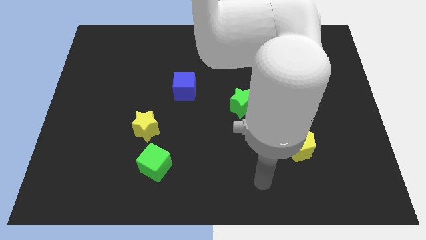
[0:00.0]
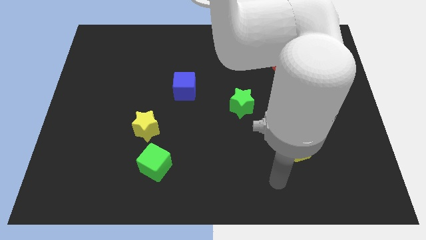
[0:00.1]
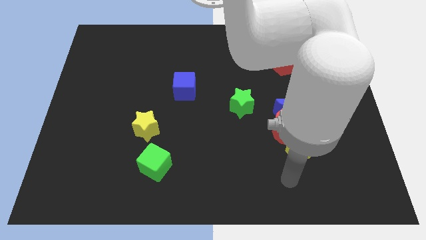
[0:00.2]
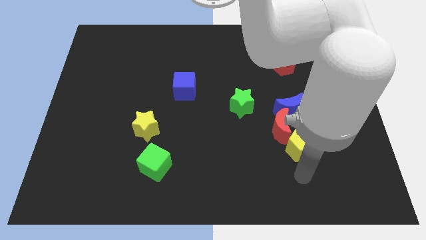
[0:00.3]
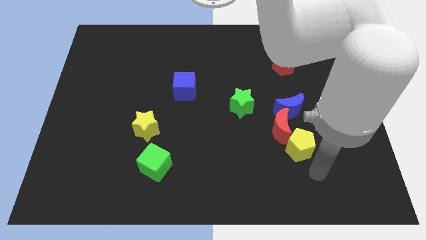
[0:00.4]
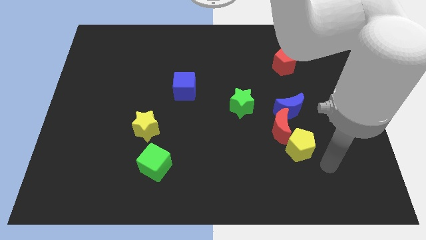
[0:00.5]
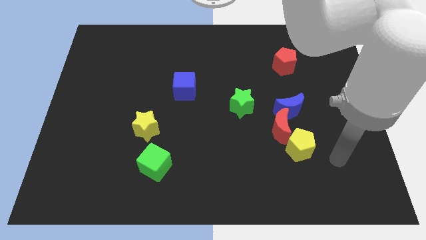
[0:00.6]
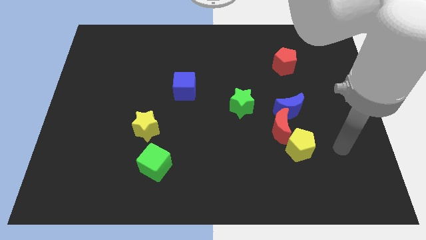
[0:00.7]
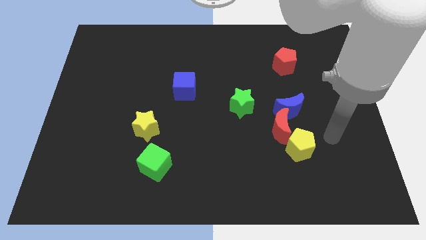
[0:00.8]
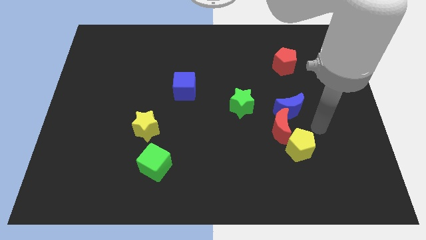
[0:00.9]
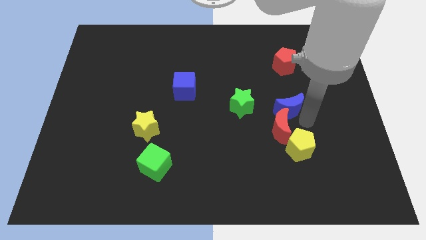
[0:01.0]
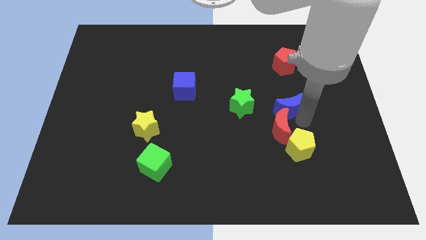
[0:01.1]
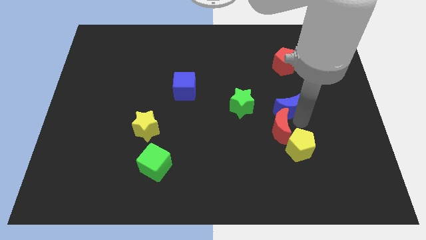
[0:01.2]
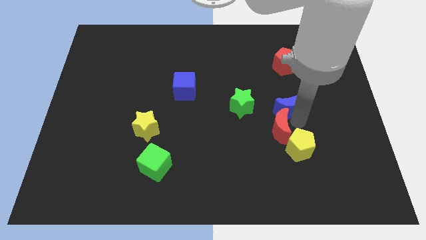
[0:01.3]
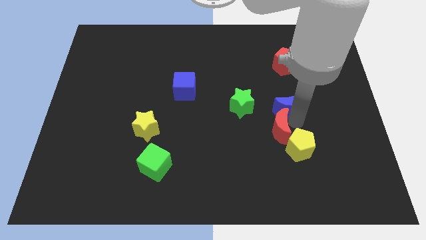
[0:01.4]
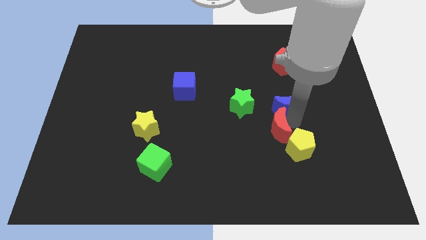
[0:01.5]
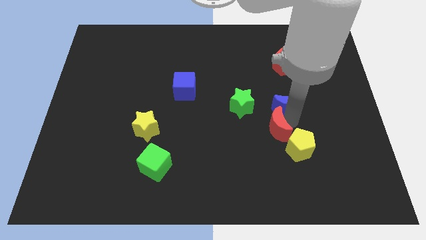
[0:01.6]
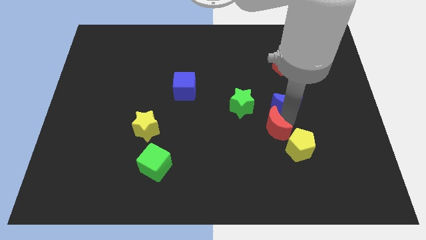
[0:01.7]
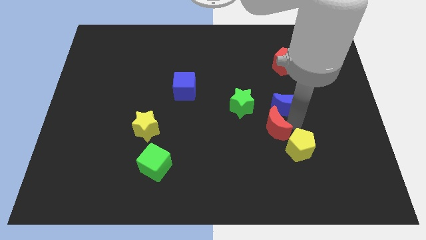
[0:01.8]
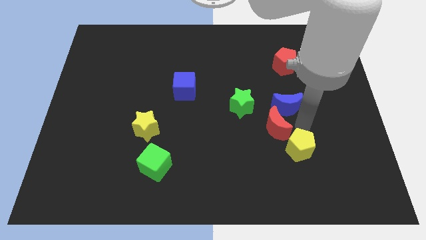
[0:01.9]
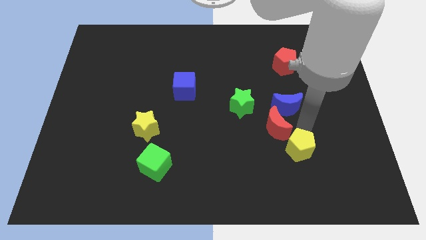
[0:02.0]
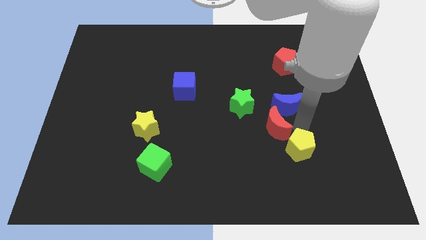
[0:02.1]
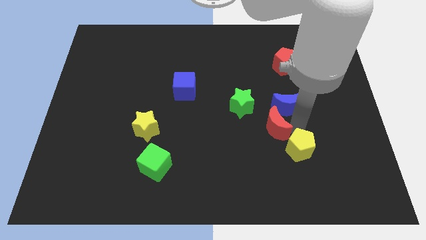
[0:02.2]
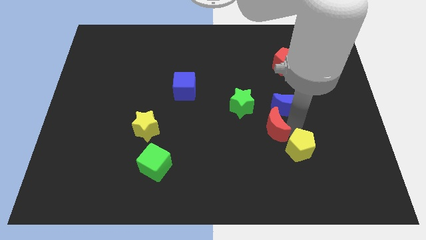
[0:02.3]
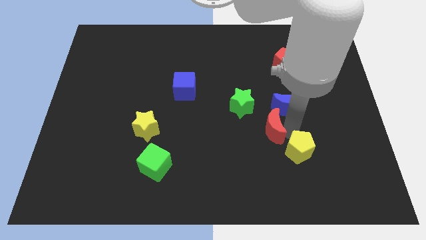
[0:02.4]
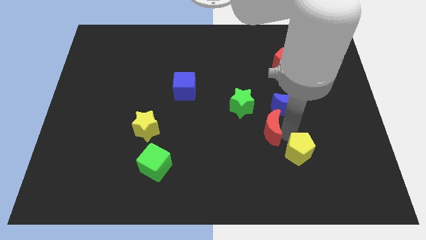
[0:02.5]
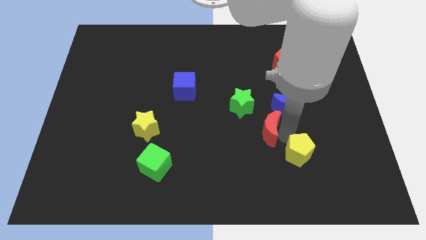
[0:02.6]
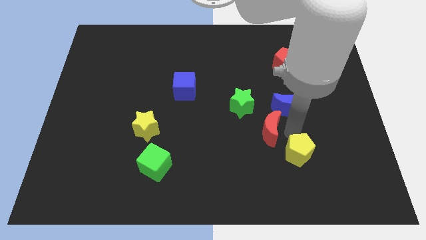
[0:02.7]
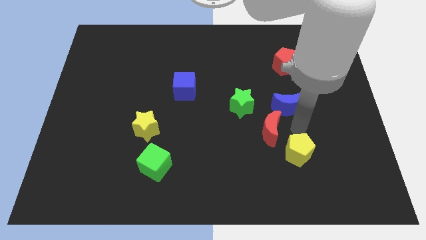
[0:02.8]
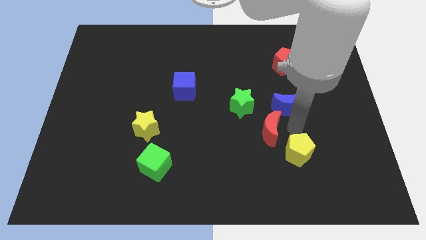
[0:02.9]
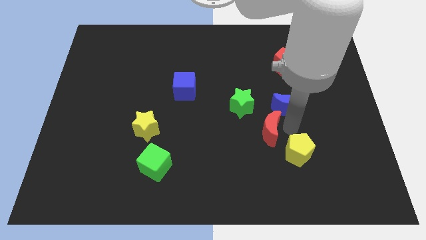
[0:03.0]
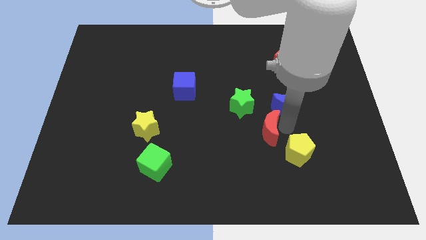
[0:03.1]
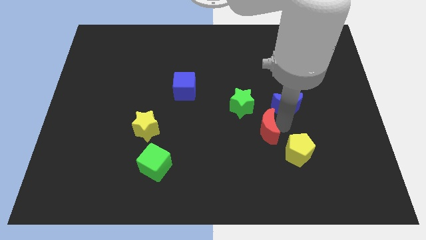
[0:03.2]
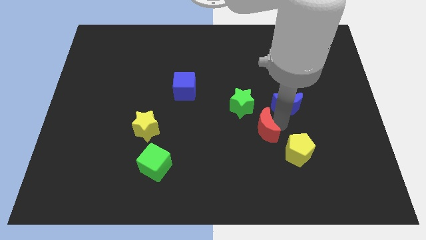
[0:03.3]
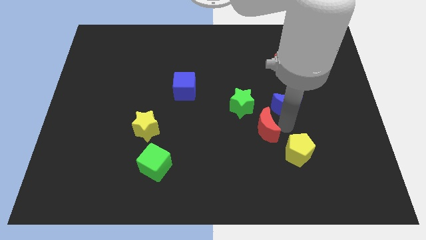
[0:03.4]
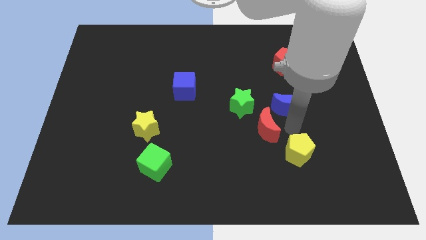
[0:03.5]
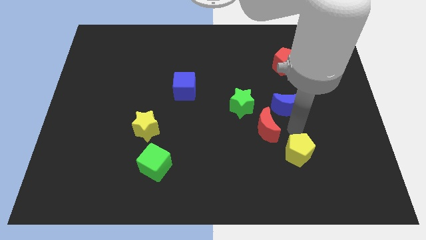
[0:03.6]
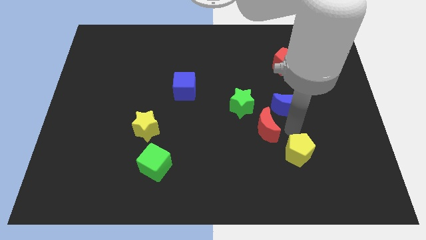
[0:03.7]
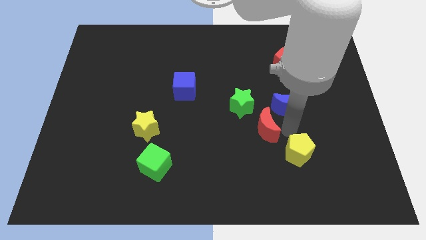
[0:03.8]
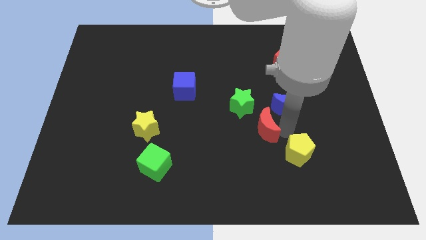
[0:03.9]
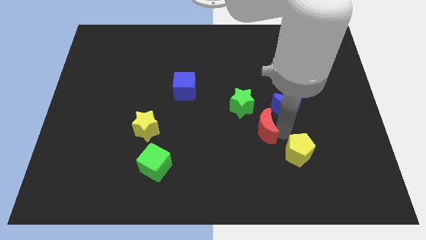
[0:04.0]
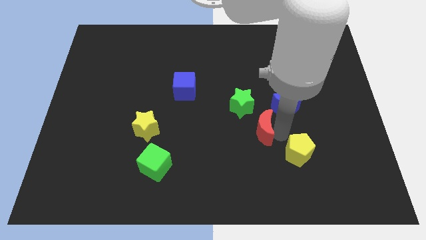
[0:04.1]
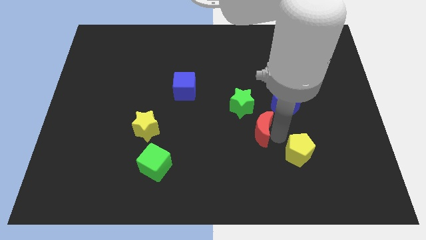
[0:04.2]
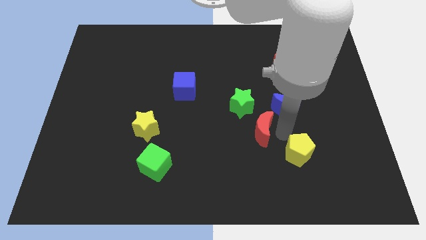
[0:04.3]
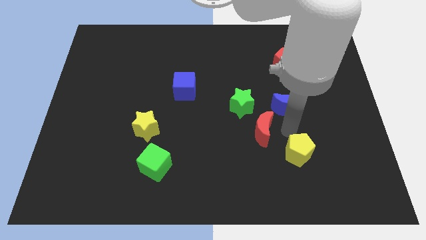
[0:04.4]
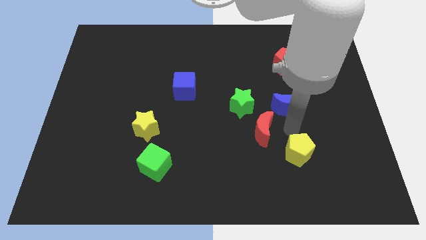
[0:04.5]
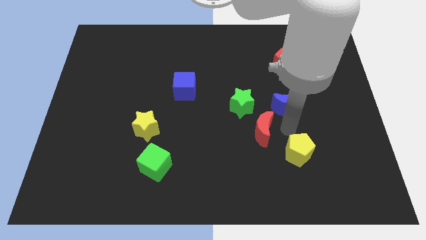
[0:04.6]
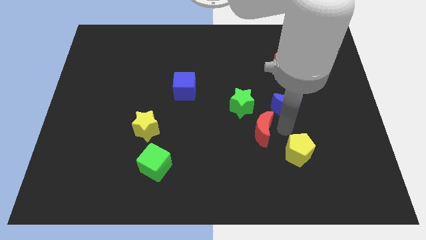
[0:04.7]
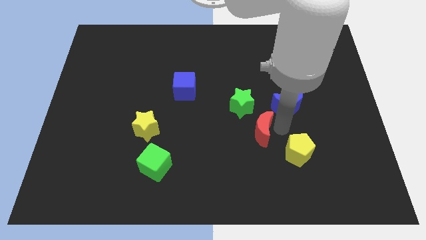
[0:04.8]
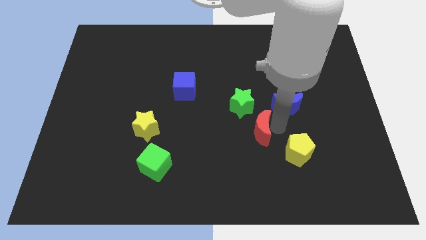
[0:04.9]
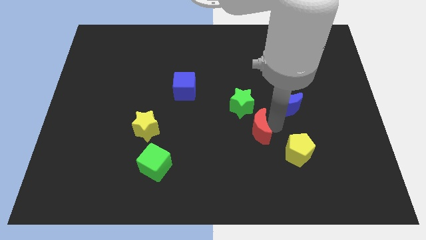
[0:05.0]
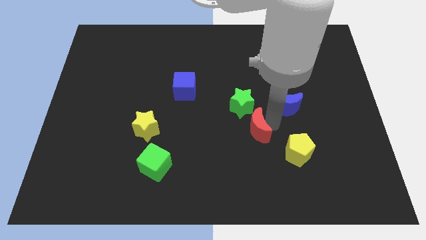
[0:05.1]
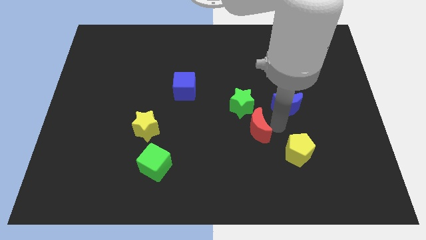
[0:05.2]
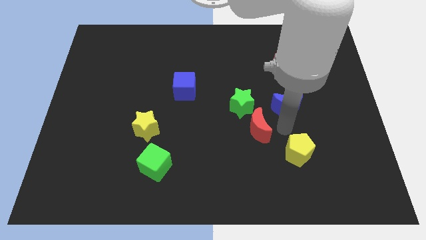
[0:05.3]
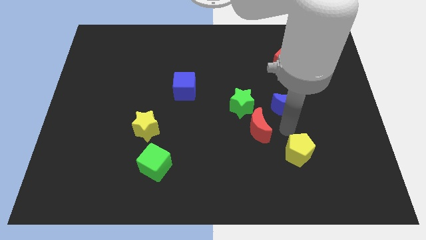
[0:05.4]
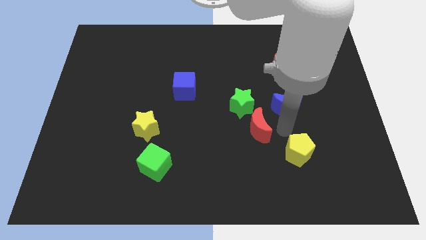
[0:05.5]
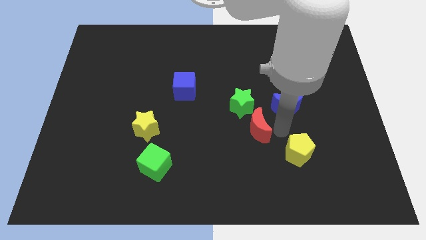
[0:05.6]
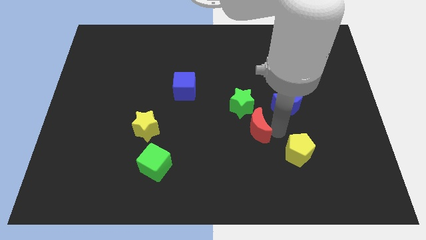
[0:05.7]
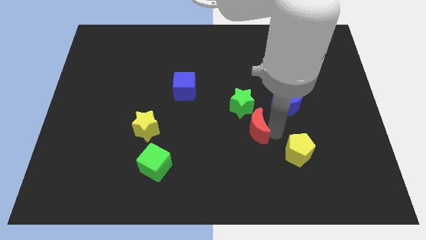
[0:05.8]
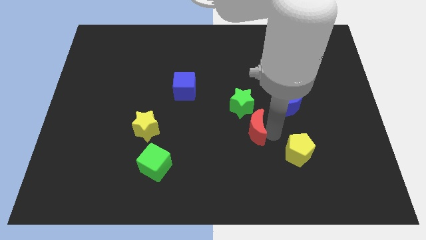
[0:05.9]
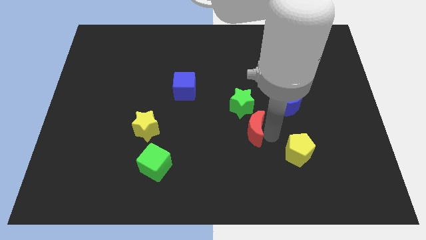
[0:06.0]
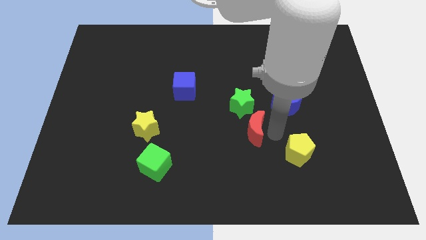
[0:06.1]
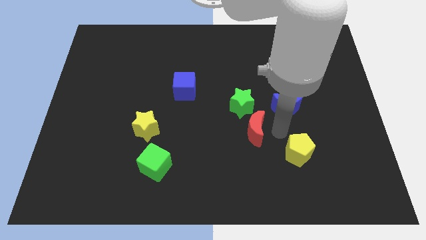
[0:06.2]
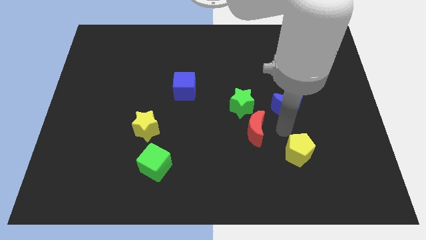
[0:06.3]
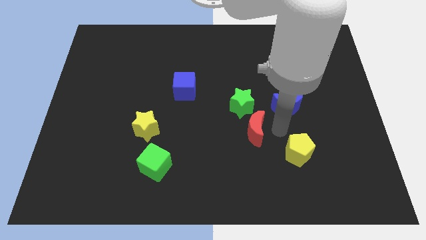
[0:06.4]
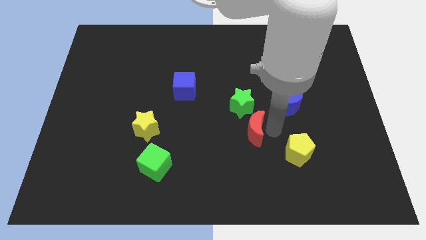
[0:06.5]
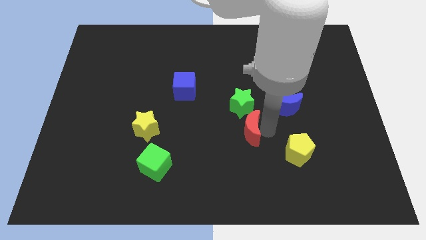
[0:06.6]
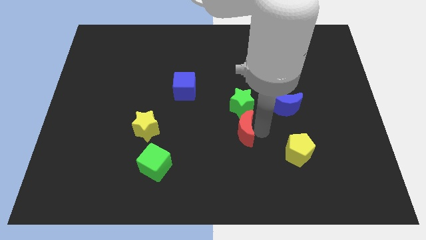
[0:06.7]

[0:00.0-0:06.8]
pull the red moon apart from the blue moon and yellow pentagon

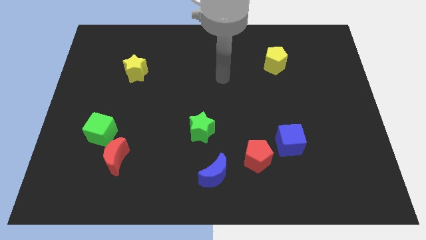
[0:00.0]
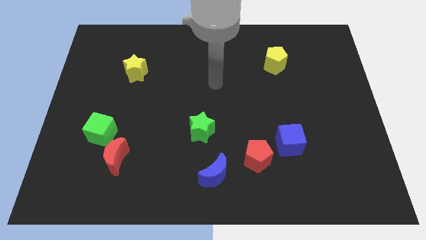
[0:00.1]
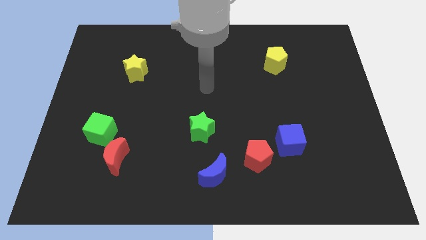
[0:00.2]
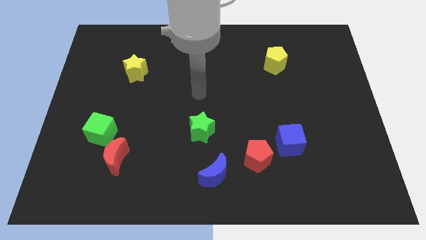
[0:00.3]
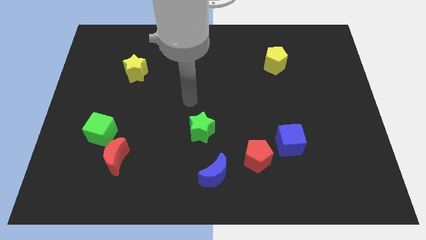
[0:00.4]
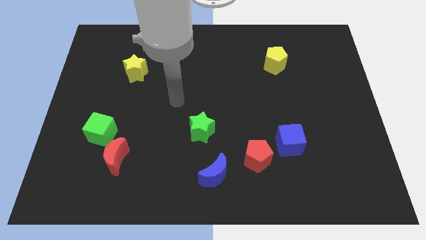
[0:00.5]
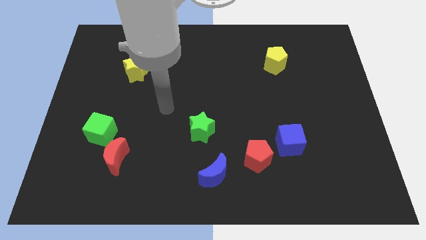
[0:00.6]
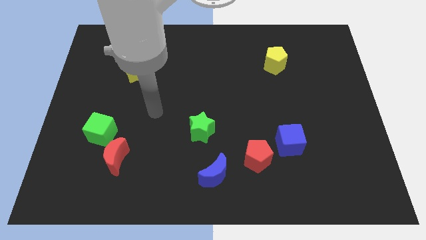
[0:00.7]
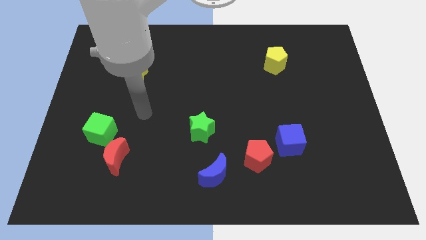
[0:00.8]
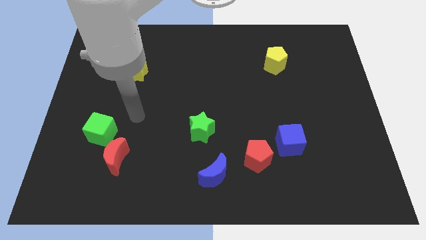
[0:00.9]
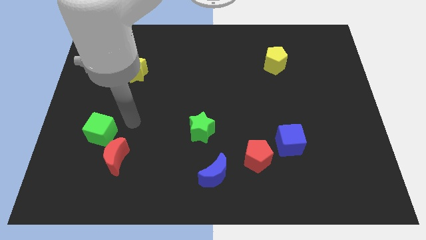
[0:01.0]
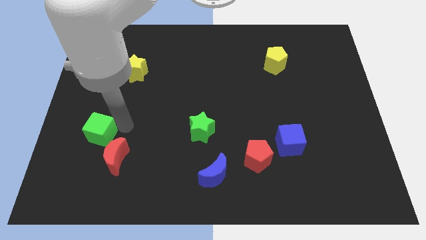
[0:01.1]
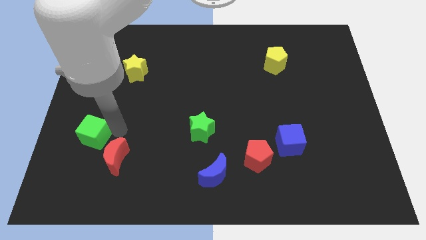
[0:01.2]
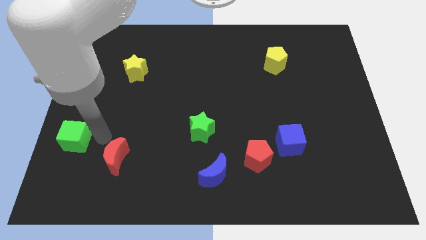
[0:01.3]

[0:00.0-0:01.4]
move the red moon away from the green cube

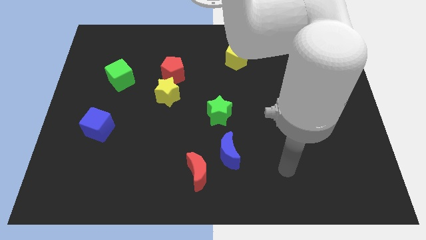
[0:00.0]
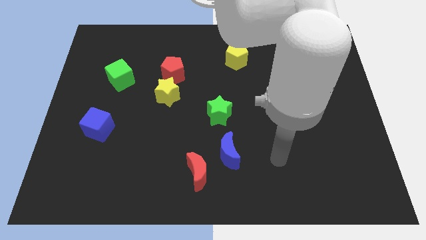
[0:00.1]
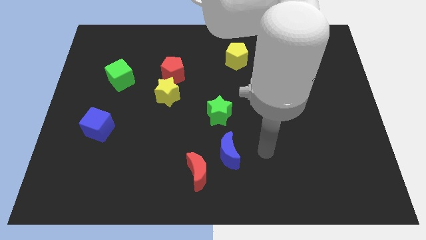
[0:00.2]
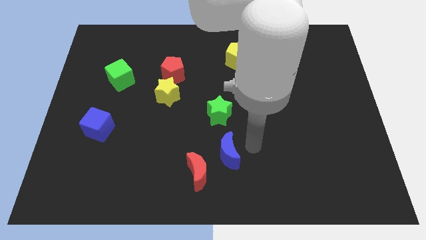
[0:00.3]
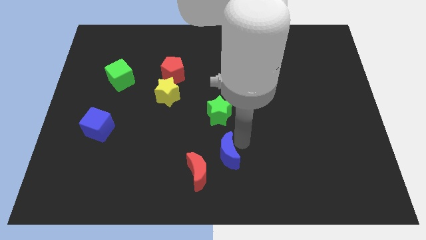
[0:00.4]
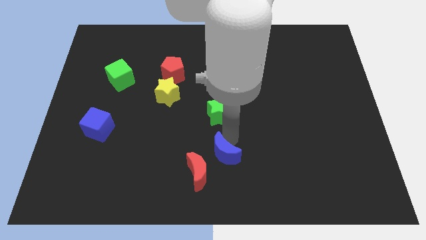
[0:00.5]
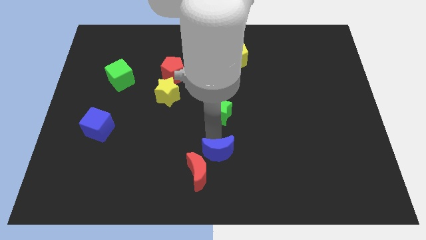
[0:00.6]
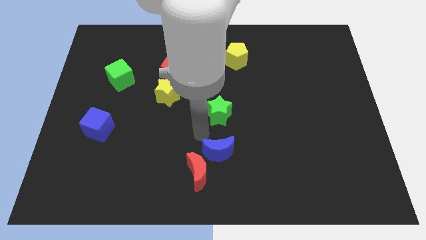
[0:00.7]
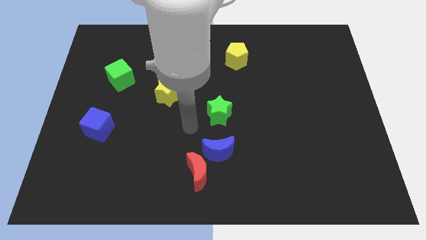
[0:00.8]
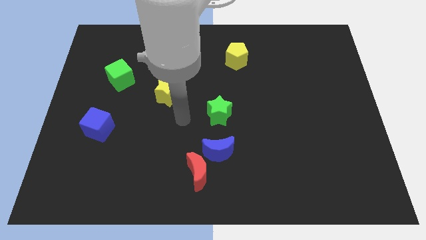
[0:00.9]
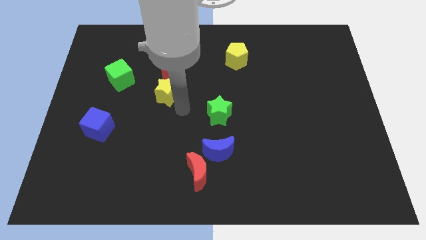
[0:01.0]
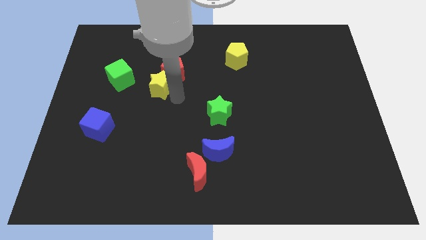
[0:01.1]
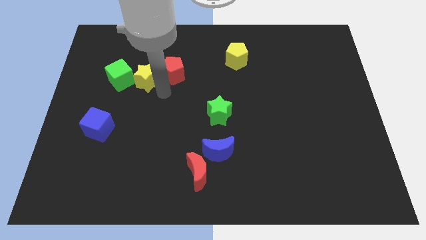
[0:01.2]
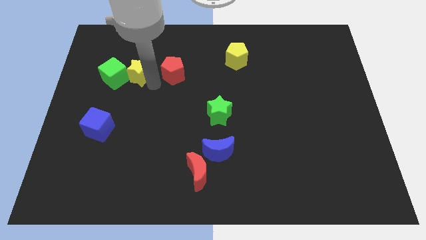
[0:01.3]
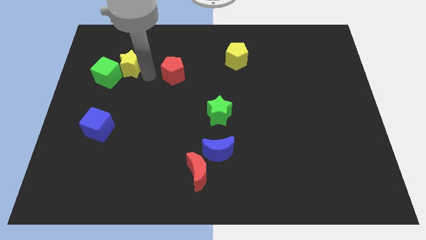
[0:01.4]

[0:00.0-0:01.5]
move the red pentagon away from the yellow star
